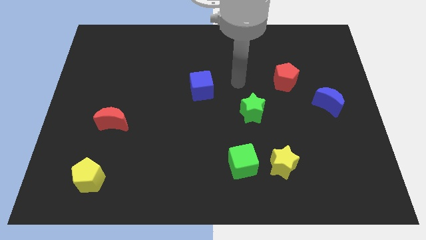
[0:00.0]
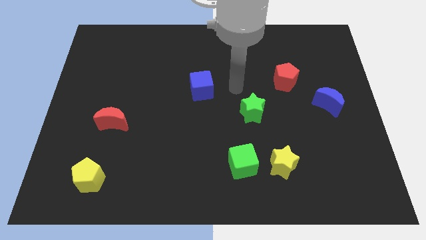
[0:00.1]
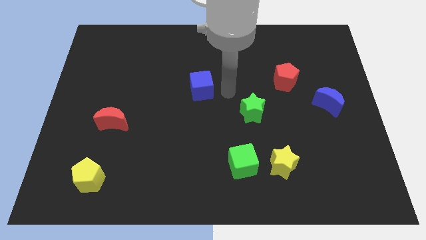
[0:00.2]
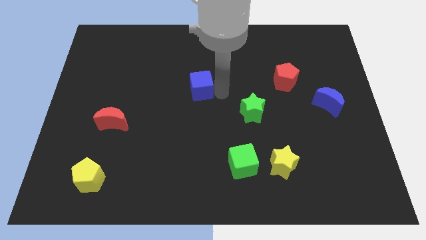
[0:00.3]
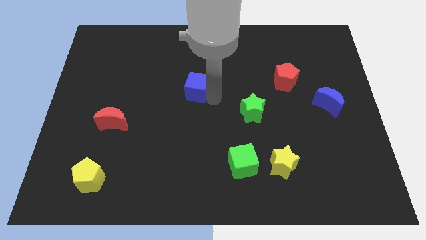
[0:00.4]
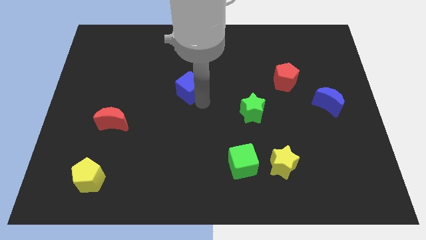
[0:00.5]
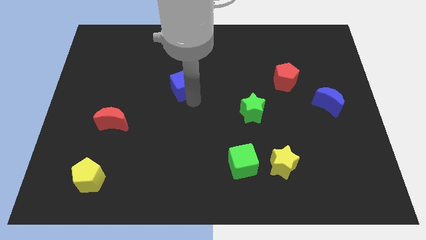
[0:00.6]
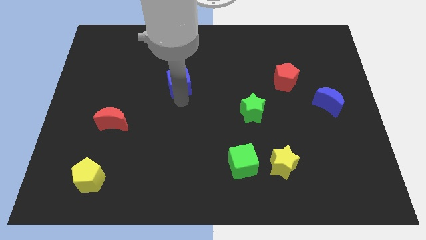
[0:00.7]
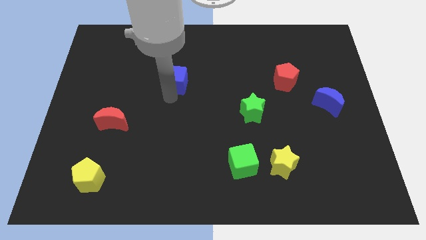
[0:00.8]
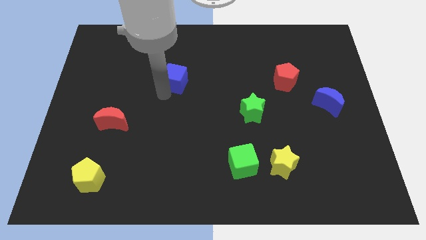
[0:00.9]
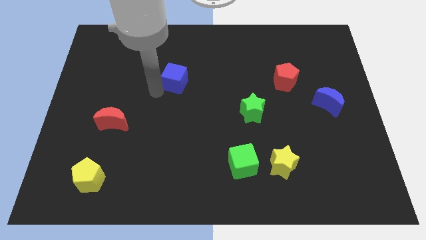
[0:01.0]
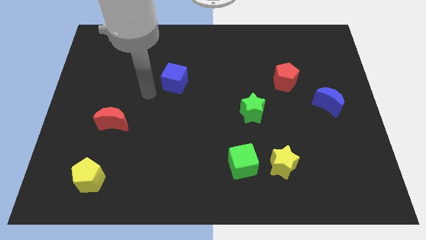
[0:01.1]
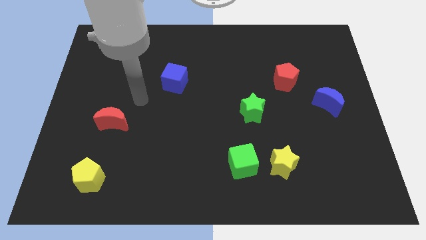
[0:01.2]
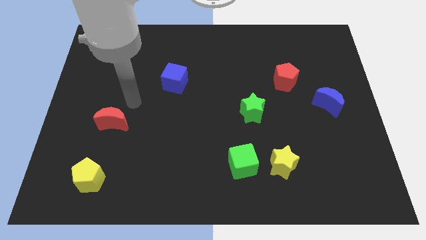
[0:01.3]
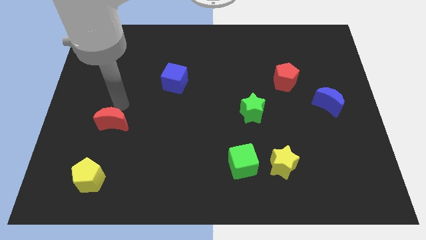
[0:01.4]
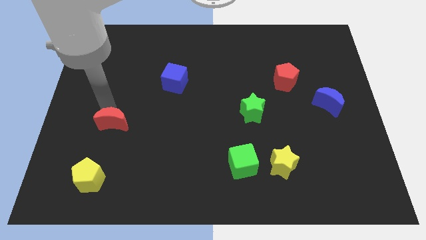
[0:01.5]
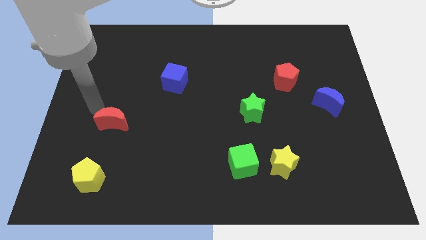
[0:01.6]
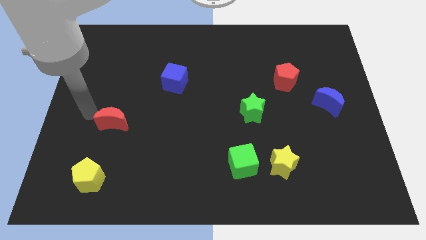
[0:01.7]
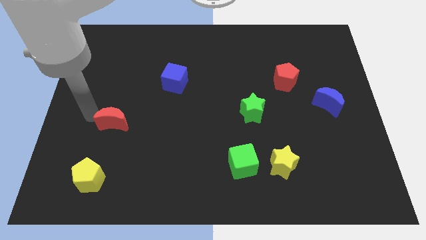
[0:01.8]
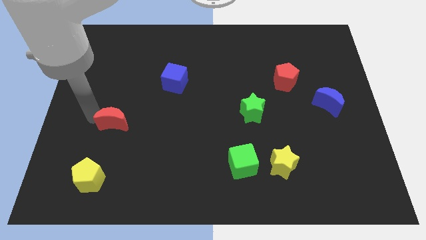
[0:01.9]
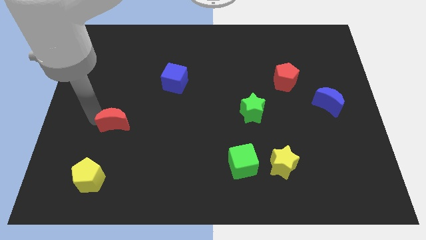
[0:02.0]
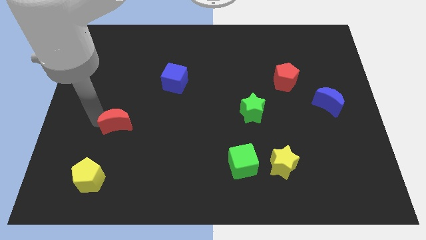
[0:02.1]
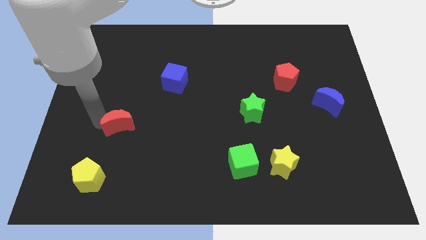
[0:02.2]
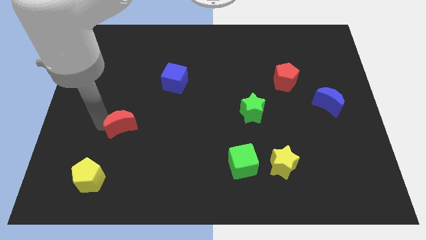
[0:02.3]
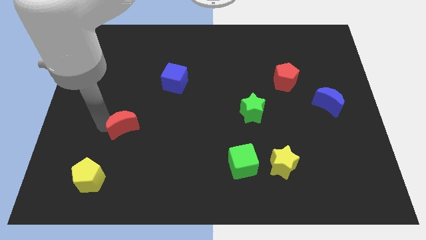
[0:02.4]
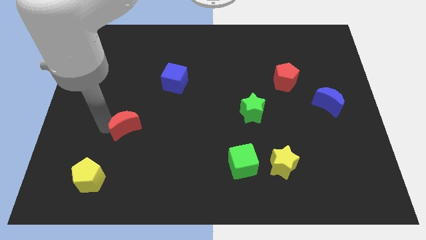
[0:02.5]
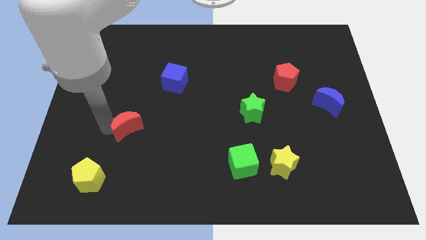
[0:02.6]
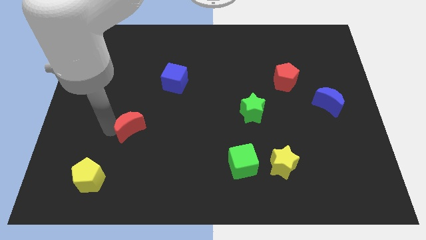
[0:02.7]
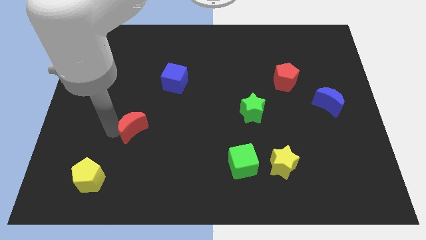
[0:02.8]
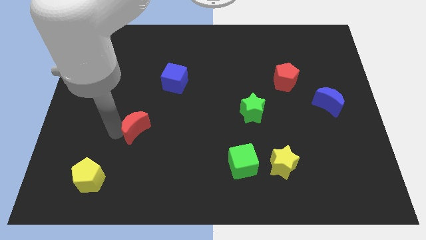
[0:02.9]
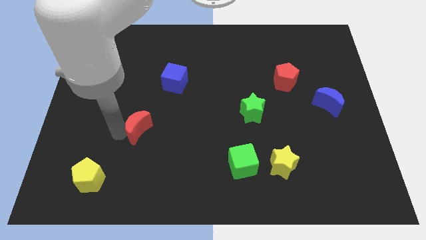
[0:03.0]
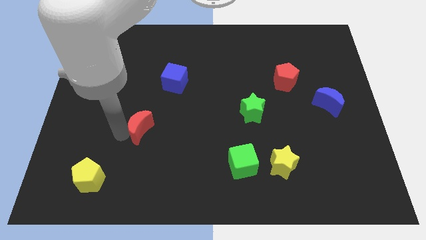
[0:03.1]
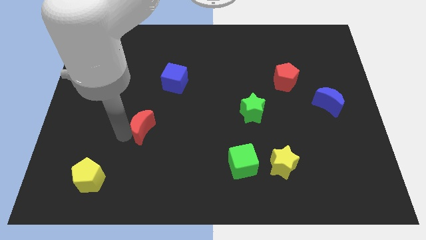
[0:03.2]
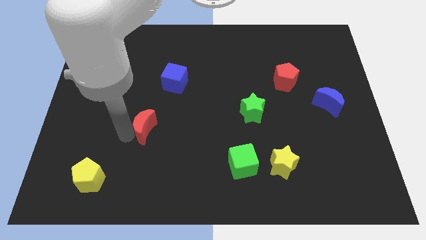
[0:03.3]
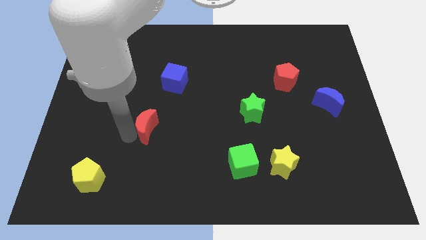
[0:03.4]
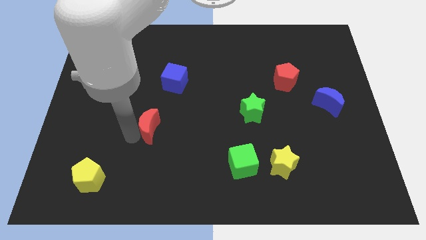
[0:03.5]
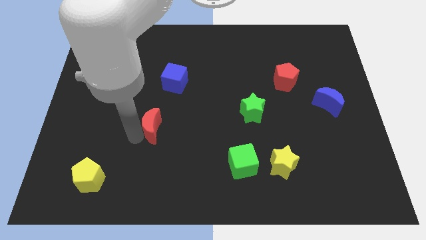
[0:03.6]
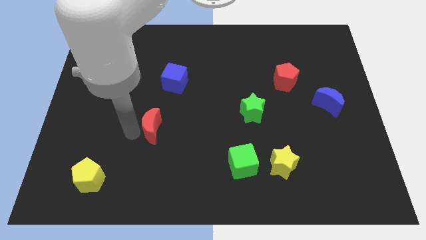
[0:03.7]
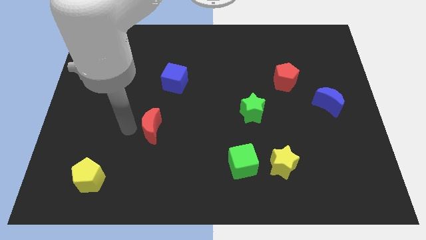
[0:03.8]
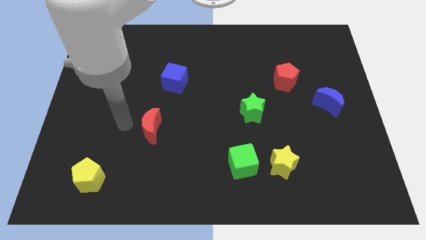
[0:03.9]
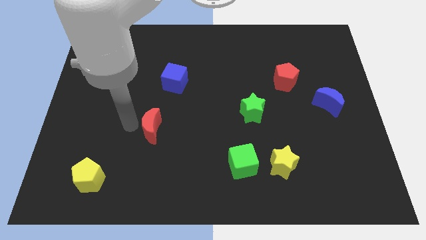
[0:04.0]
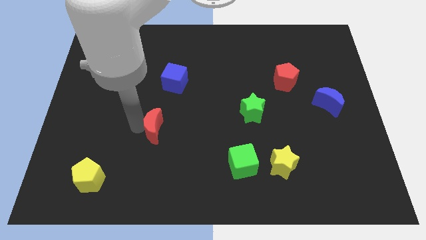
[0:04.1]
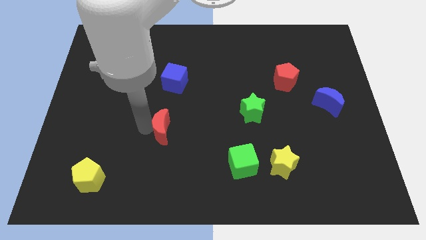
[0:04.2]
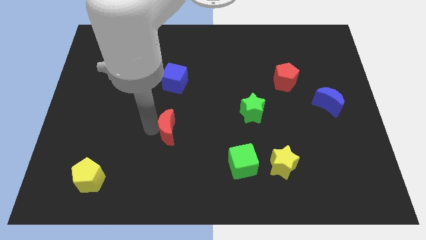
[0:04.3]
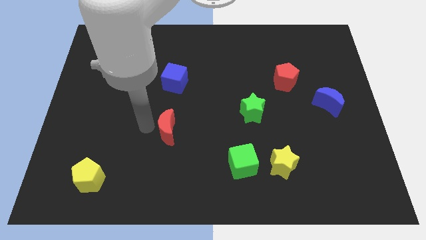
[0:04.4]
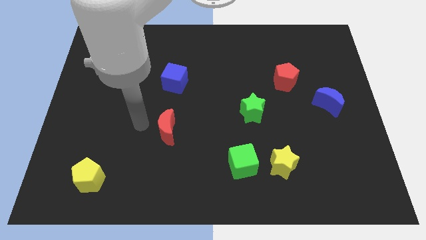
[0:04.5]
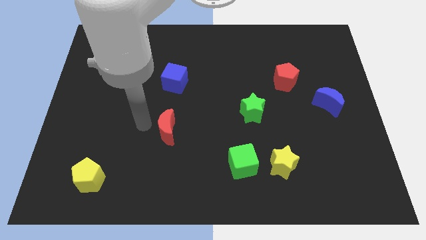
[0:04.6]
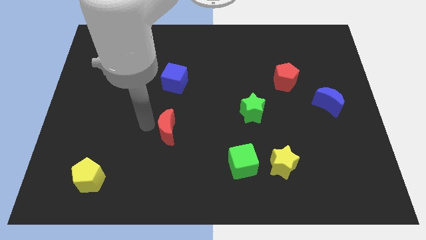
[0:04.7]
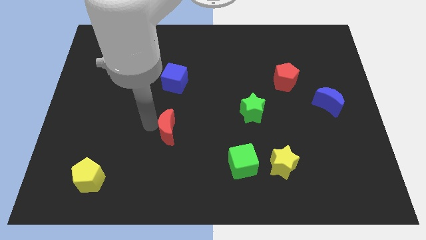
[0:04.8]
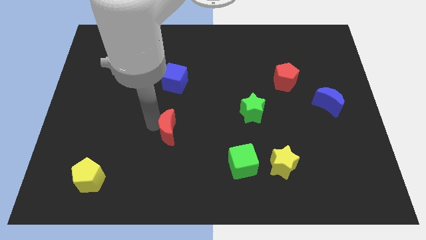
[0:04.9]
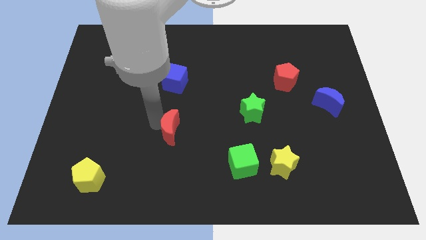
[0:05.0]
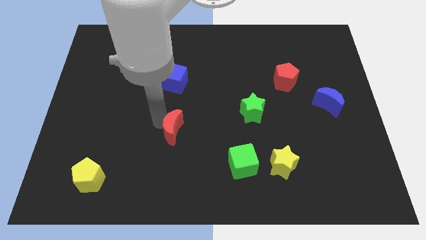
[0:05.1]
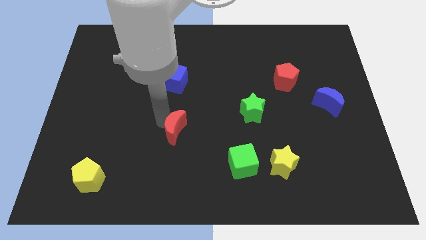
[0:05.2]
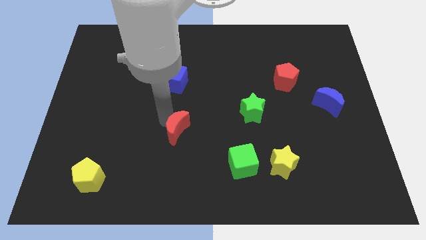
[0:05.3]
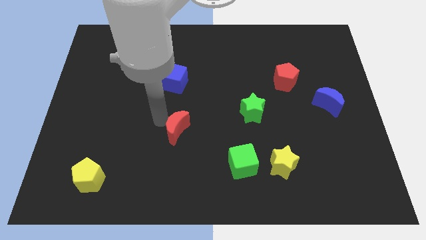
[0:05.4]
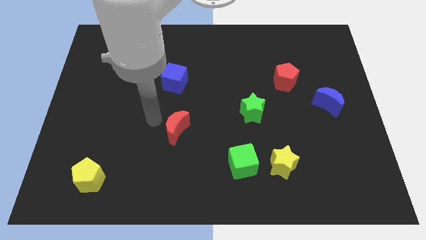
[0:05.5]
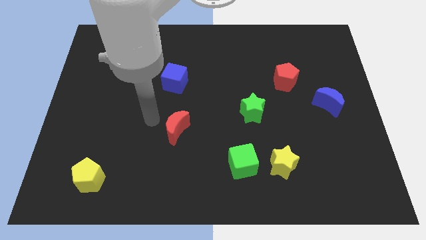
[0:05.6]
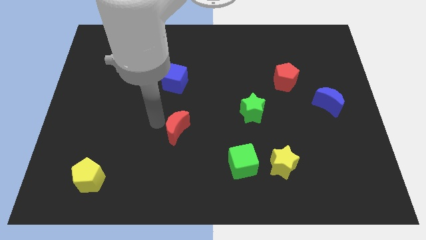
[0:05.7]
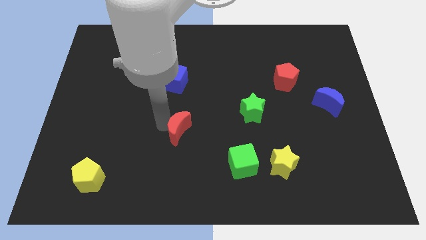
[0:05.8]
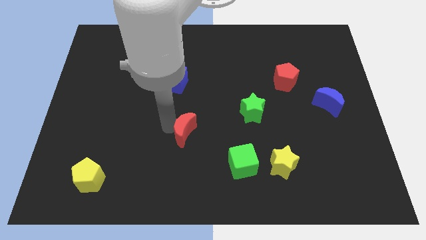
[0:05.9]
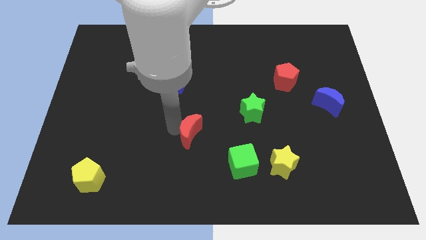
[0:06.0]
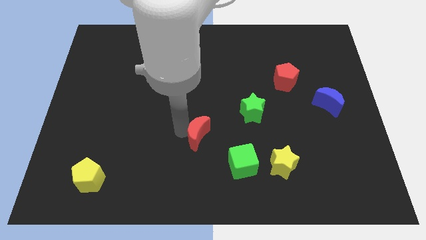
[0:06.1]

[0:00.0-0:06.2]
slide the red moon diagonally up and to the left of the green cube

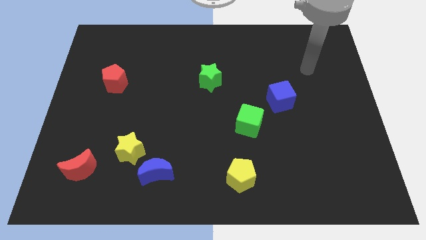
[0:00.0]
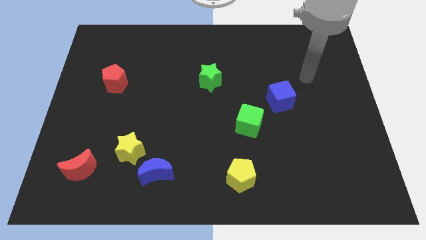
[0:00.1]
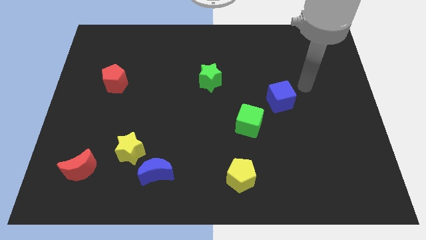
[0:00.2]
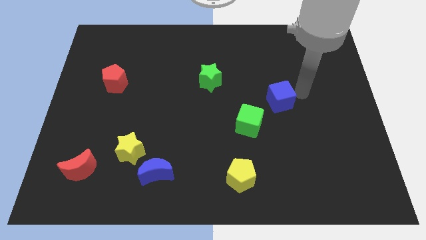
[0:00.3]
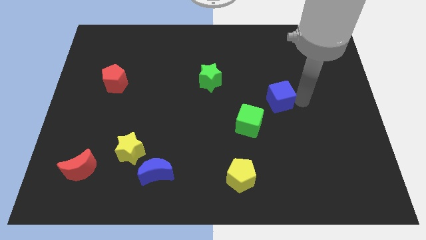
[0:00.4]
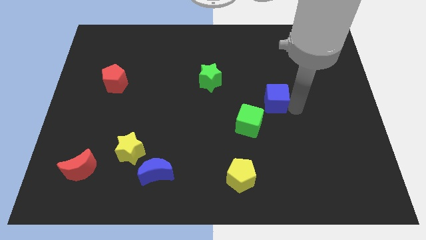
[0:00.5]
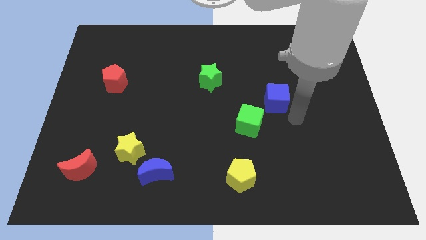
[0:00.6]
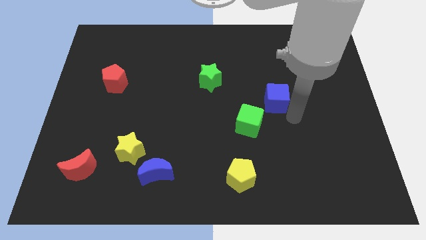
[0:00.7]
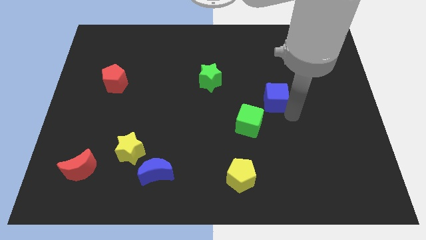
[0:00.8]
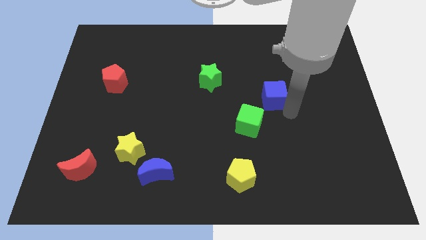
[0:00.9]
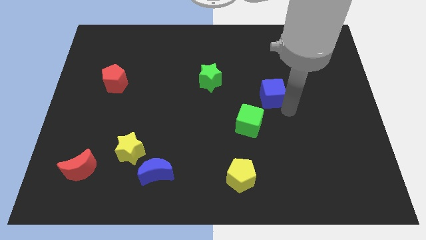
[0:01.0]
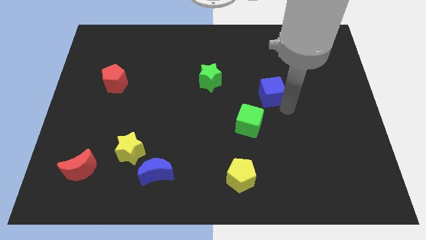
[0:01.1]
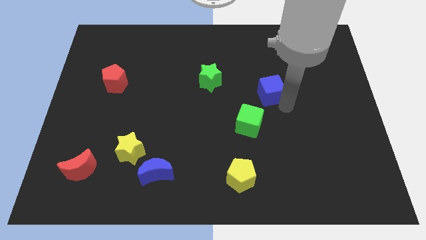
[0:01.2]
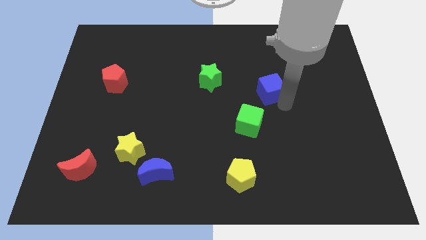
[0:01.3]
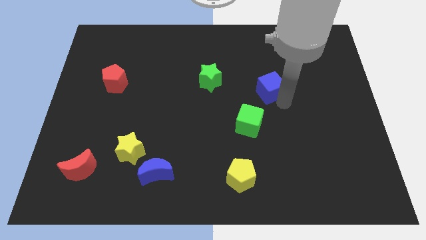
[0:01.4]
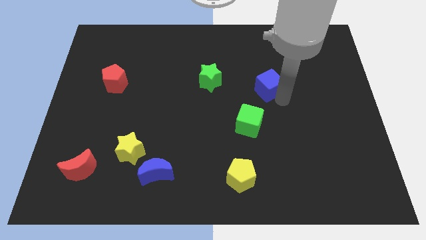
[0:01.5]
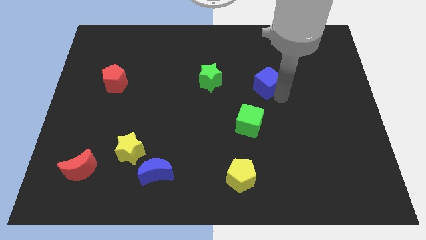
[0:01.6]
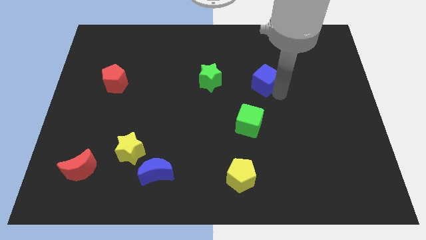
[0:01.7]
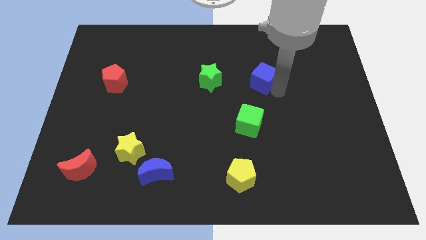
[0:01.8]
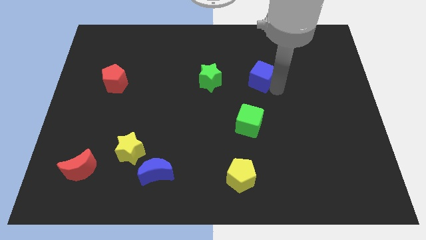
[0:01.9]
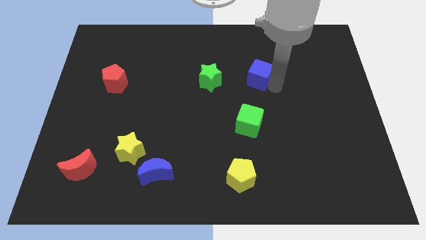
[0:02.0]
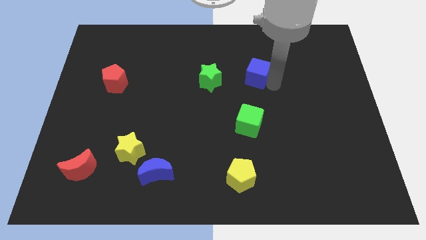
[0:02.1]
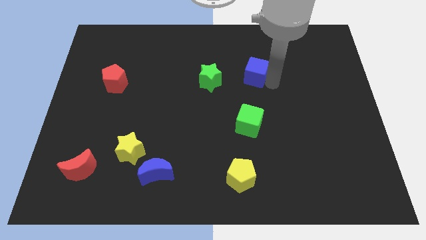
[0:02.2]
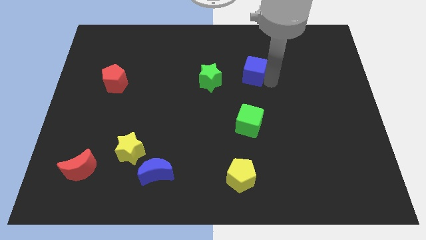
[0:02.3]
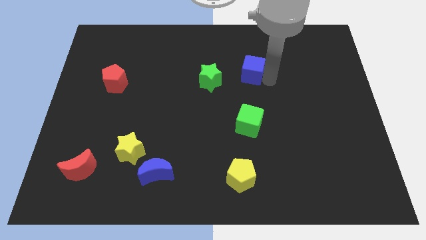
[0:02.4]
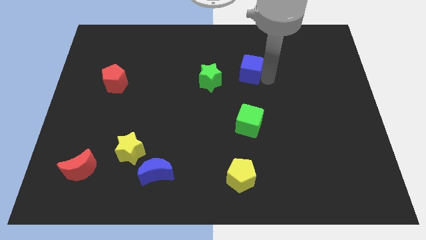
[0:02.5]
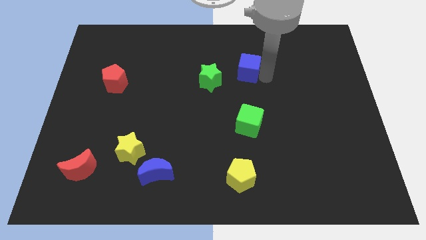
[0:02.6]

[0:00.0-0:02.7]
slide the blue cube to the top right of the green star
